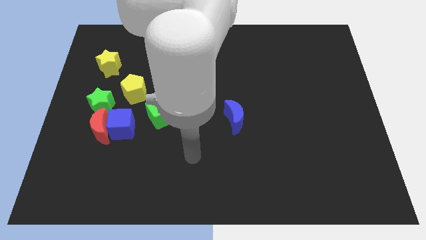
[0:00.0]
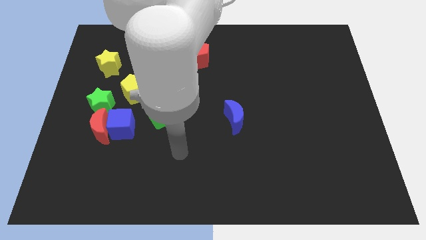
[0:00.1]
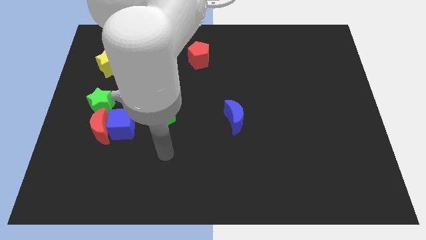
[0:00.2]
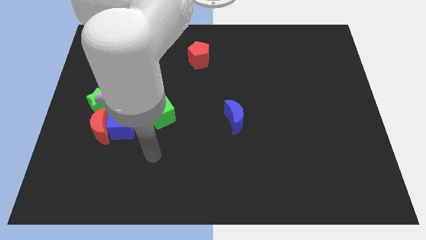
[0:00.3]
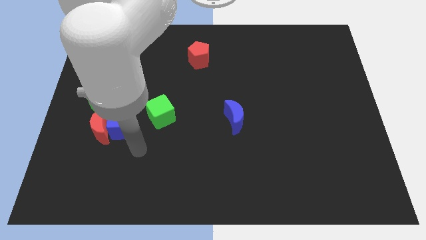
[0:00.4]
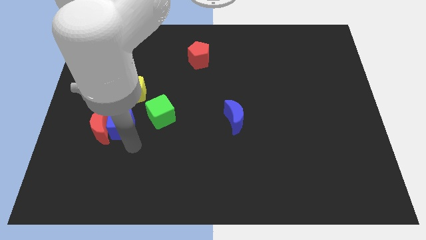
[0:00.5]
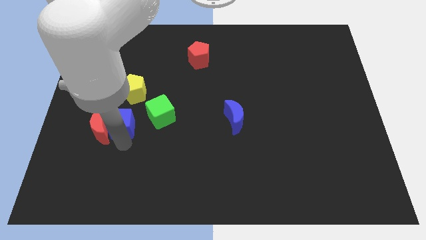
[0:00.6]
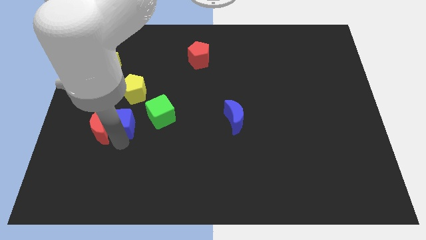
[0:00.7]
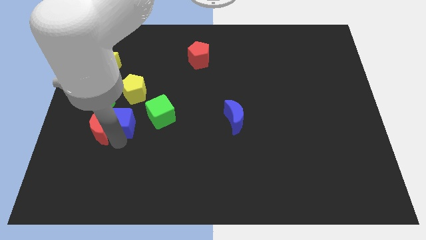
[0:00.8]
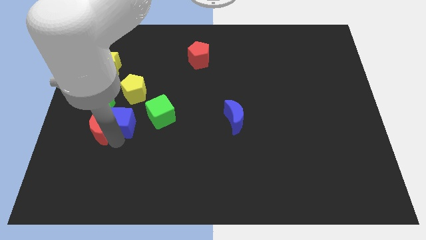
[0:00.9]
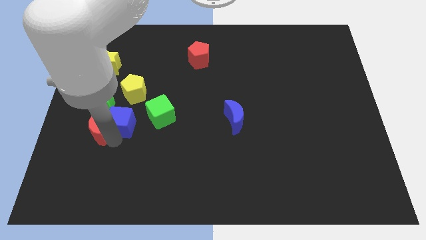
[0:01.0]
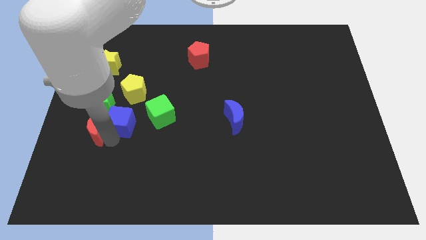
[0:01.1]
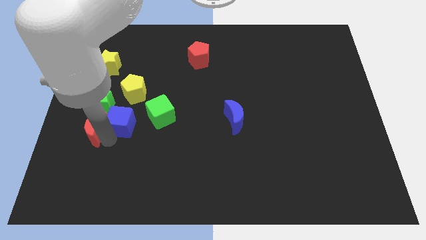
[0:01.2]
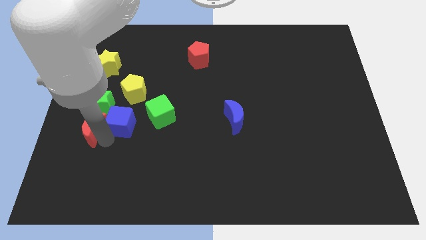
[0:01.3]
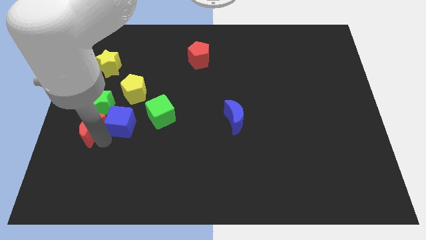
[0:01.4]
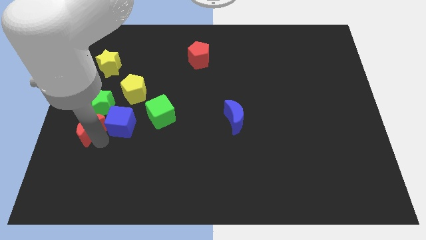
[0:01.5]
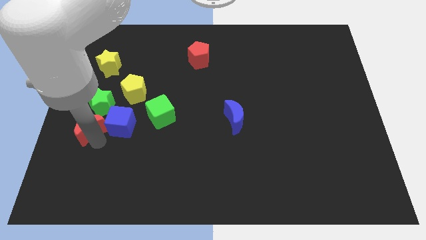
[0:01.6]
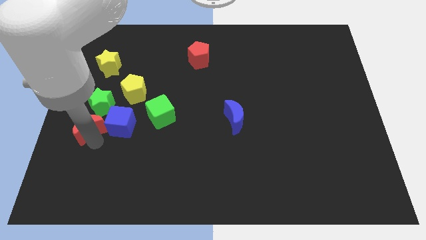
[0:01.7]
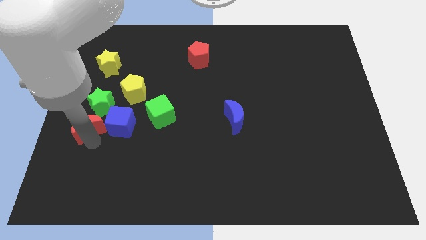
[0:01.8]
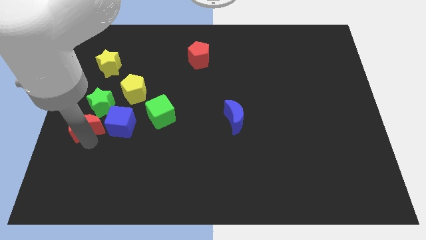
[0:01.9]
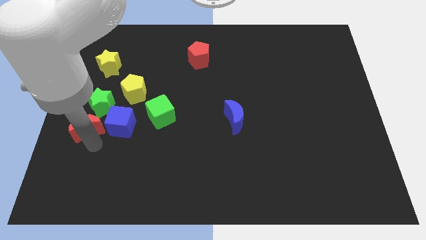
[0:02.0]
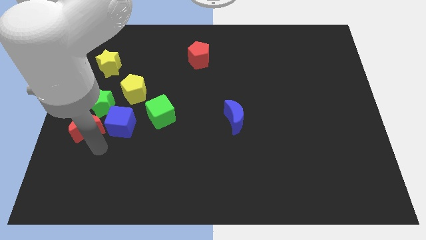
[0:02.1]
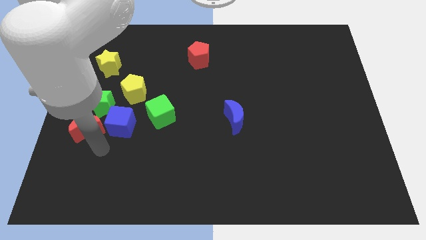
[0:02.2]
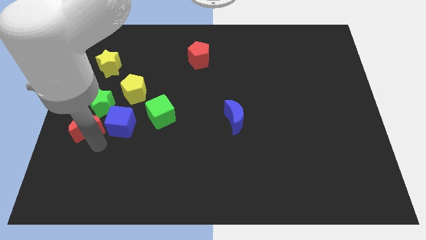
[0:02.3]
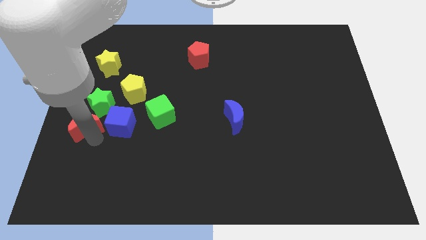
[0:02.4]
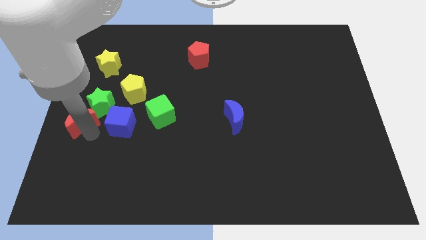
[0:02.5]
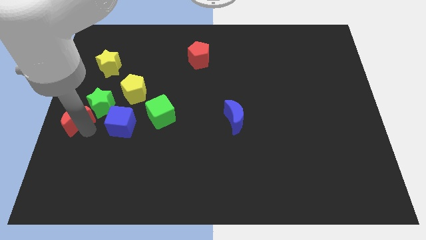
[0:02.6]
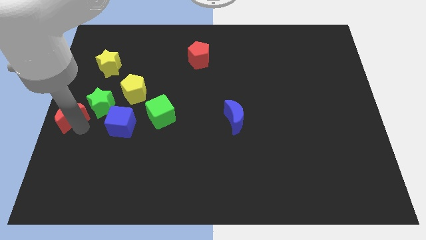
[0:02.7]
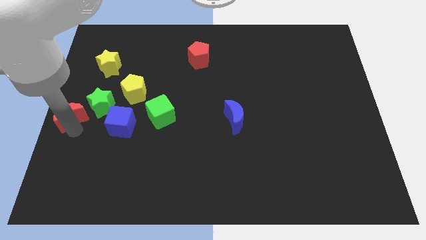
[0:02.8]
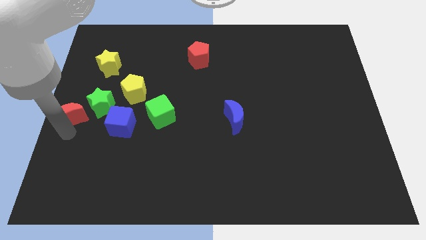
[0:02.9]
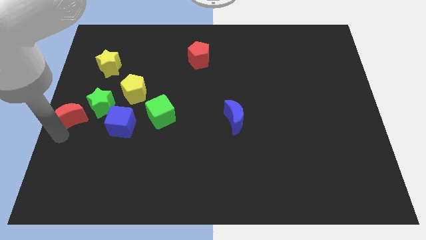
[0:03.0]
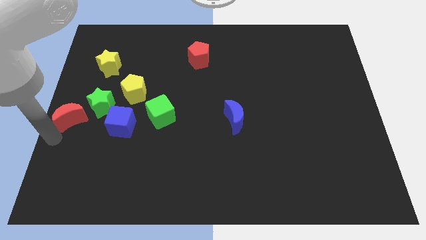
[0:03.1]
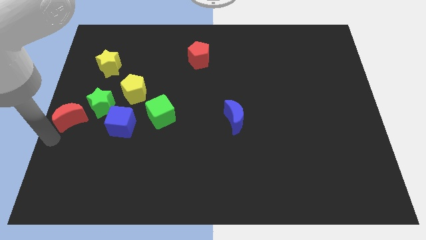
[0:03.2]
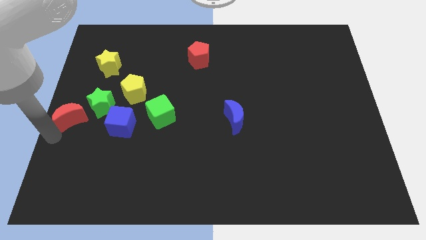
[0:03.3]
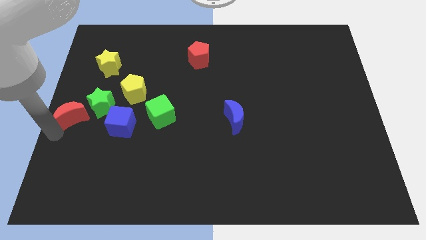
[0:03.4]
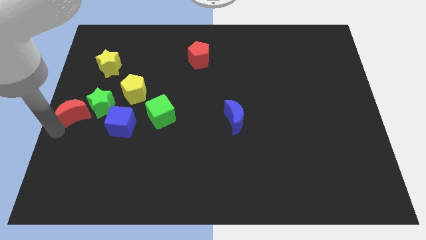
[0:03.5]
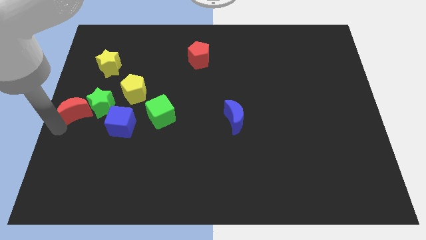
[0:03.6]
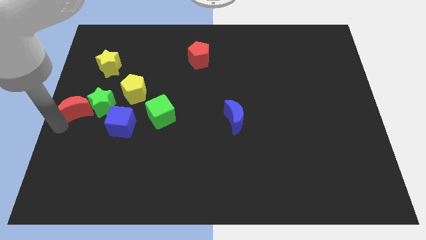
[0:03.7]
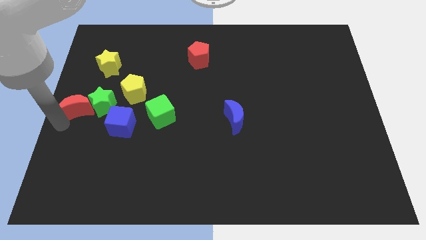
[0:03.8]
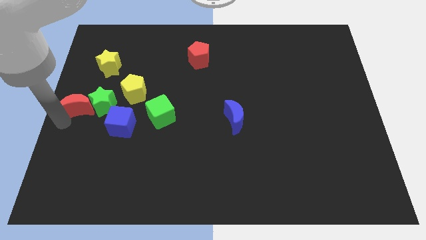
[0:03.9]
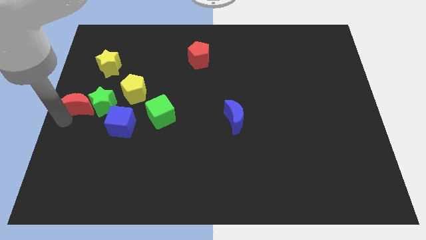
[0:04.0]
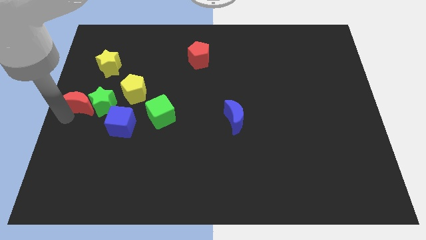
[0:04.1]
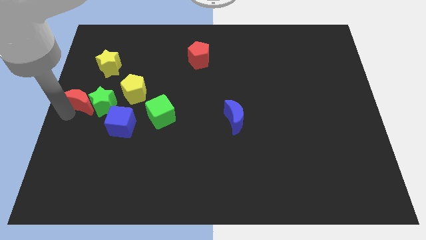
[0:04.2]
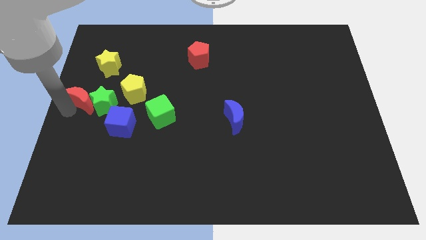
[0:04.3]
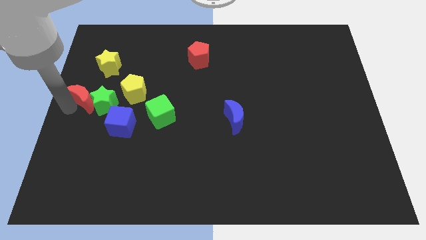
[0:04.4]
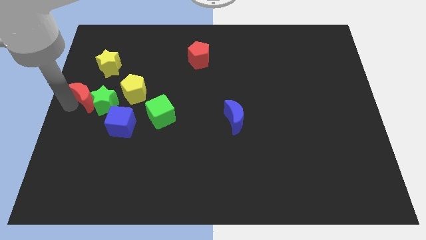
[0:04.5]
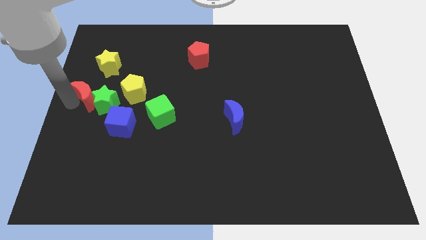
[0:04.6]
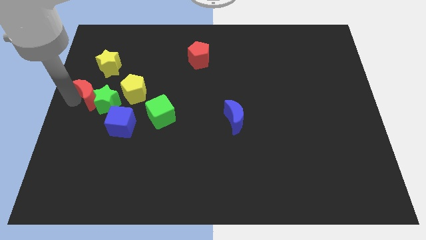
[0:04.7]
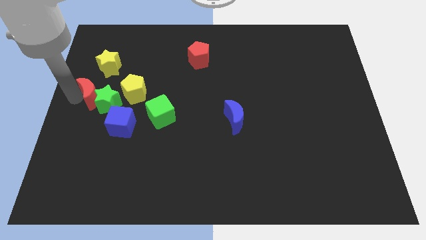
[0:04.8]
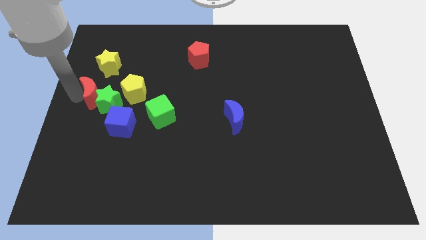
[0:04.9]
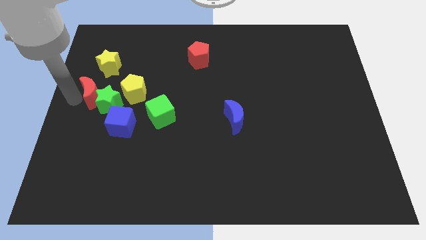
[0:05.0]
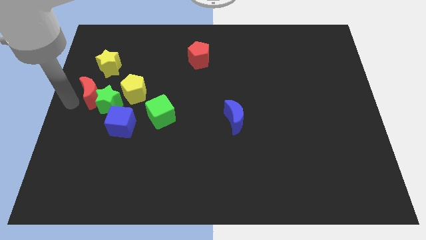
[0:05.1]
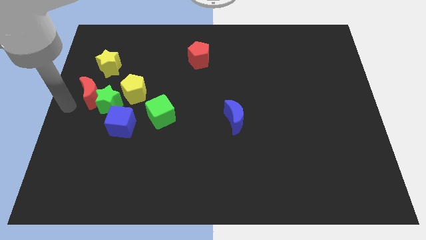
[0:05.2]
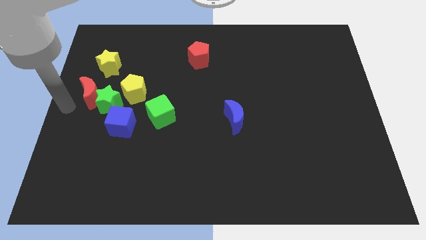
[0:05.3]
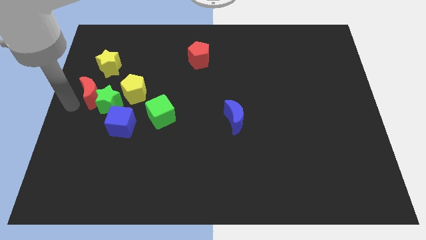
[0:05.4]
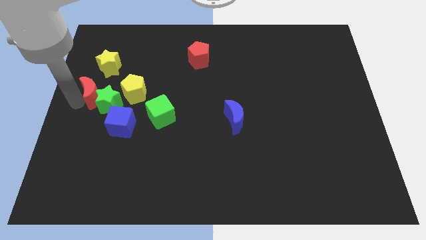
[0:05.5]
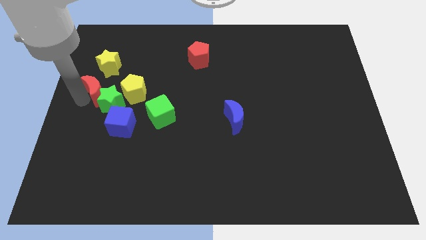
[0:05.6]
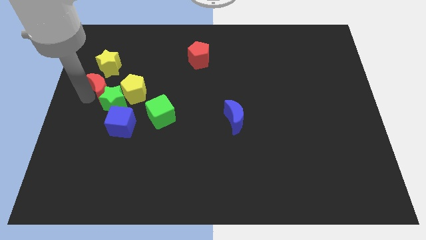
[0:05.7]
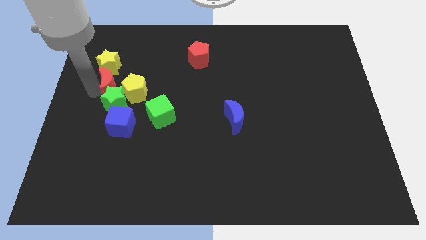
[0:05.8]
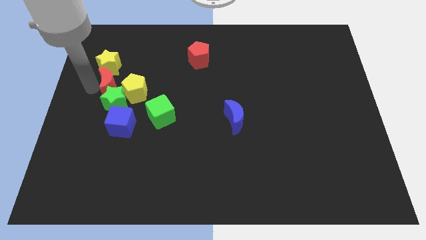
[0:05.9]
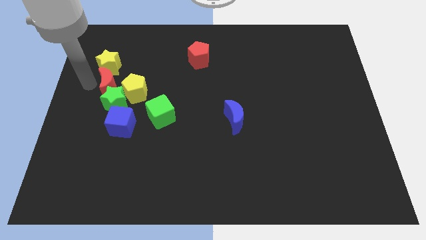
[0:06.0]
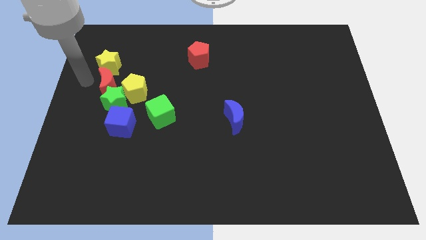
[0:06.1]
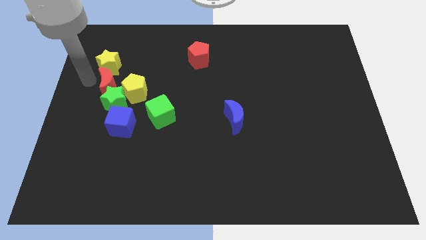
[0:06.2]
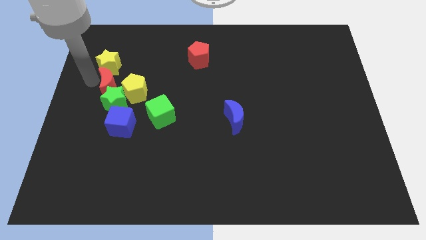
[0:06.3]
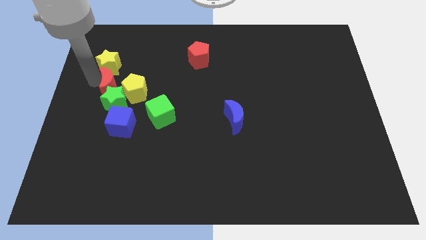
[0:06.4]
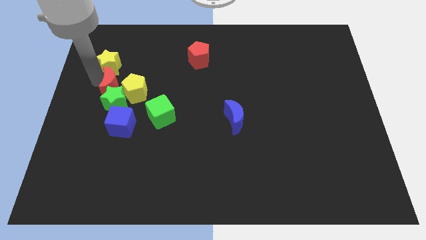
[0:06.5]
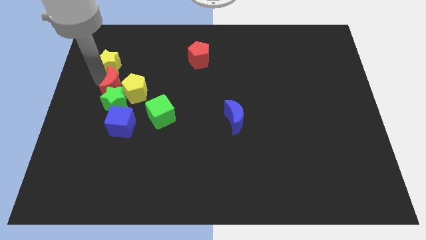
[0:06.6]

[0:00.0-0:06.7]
slide the red moon next to the yellow pentagon
